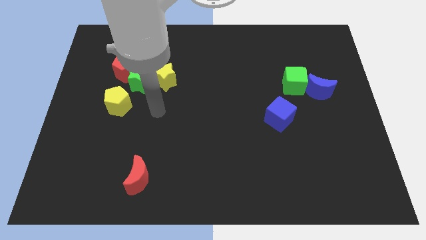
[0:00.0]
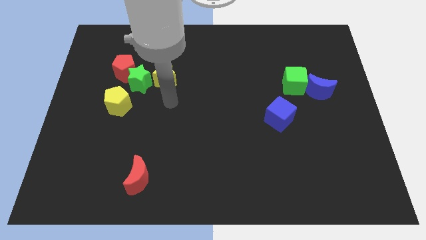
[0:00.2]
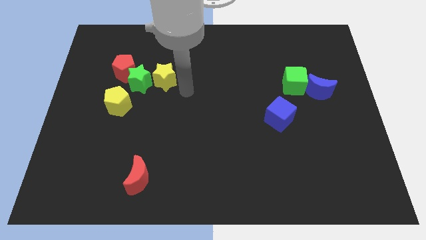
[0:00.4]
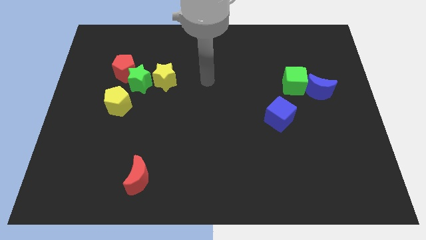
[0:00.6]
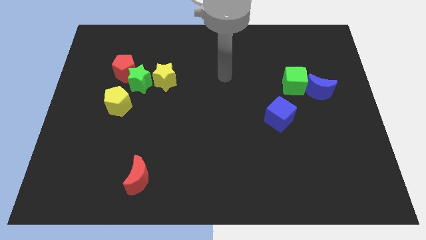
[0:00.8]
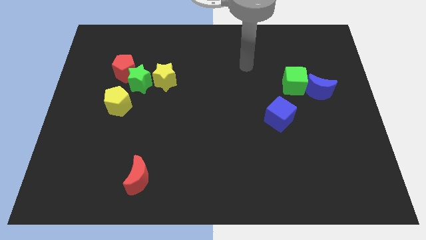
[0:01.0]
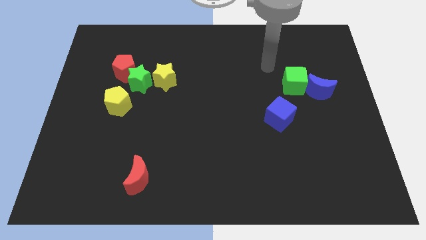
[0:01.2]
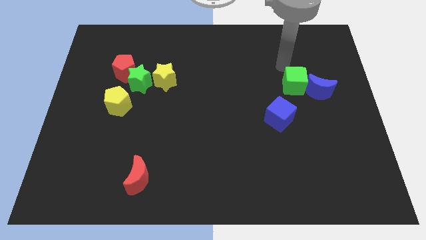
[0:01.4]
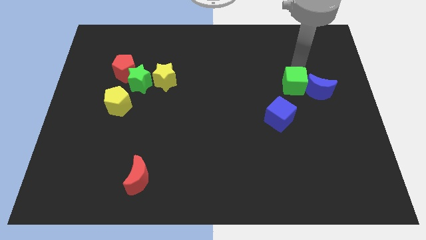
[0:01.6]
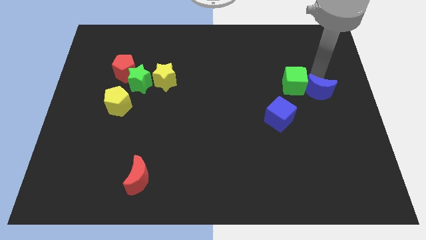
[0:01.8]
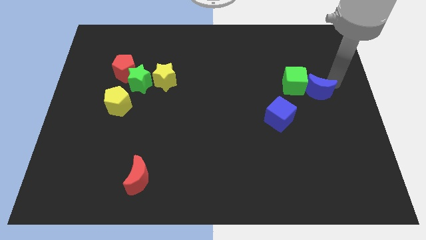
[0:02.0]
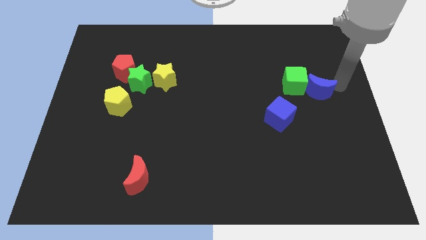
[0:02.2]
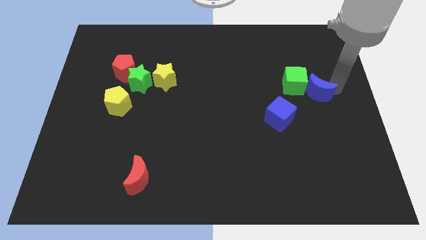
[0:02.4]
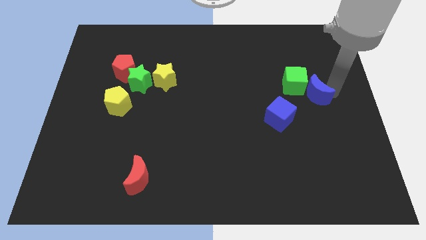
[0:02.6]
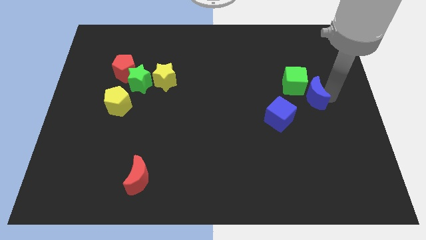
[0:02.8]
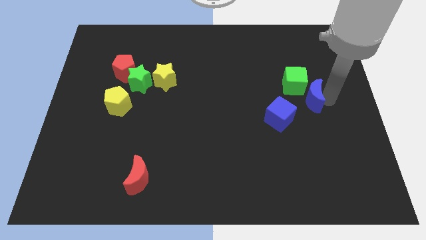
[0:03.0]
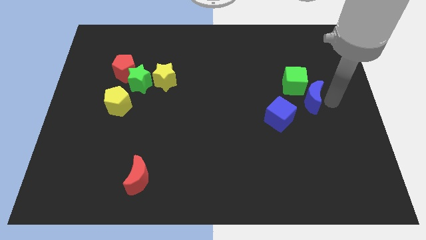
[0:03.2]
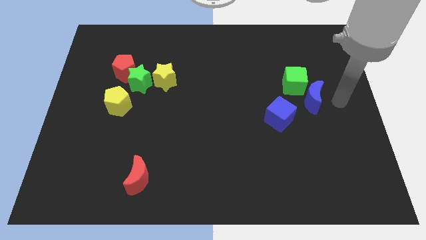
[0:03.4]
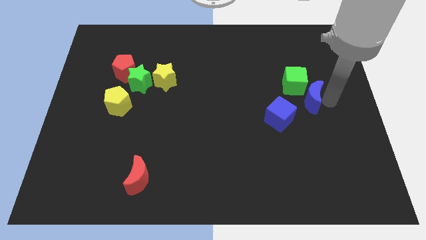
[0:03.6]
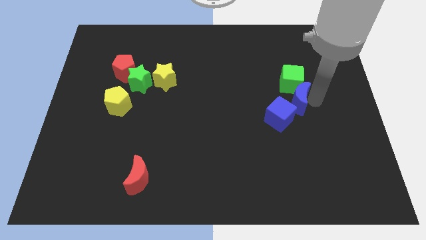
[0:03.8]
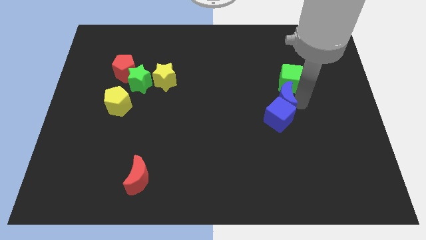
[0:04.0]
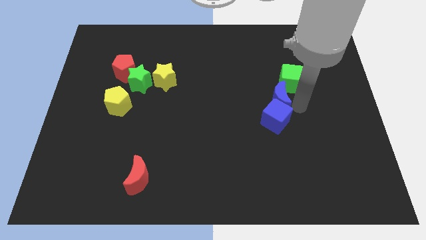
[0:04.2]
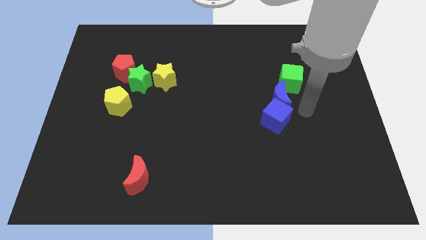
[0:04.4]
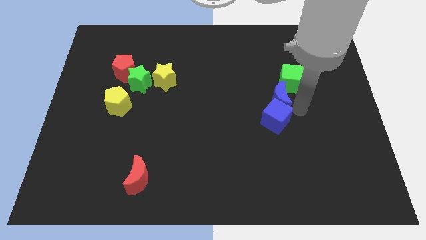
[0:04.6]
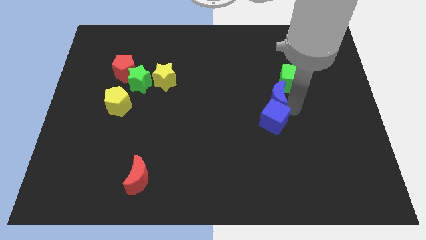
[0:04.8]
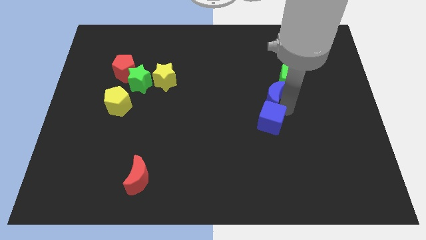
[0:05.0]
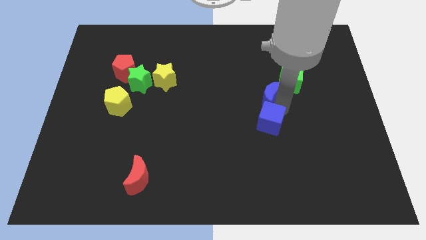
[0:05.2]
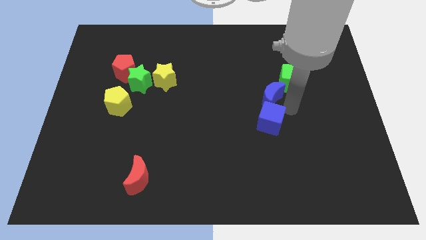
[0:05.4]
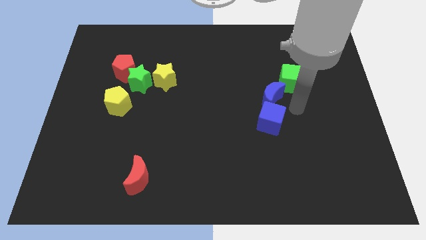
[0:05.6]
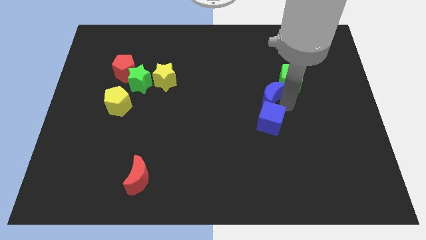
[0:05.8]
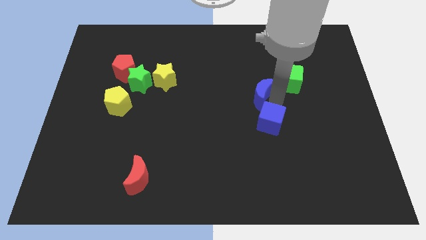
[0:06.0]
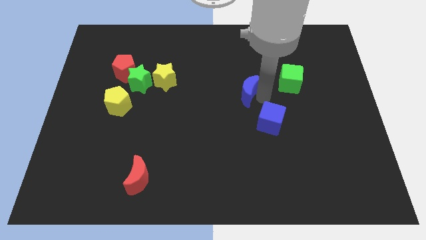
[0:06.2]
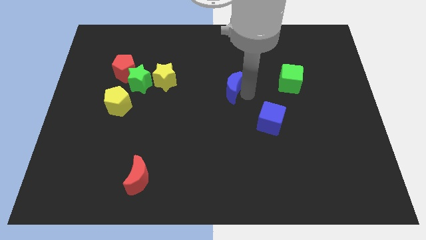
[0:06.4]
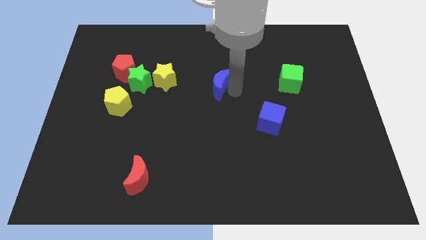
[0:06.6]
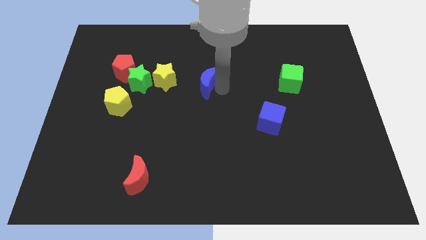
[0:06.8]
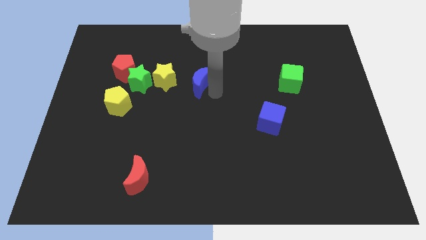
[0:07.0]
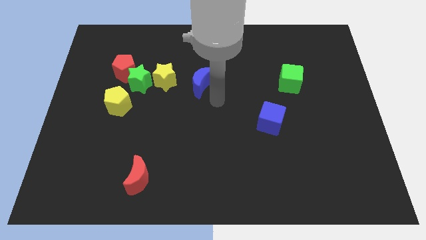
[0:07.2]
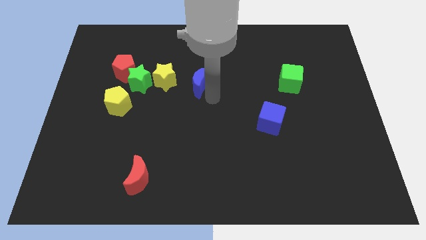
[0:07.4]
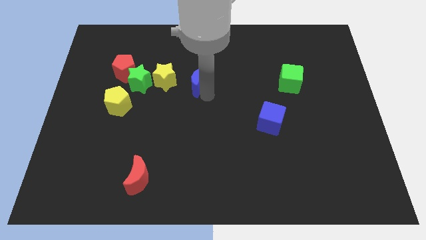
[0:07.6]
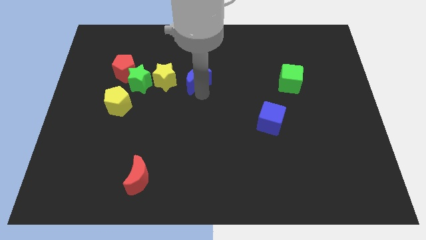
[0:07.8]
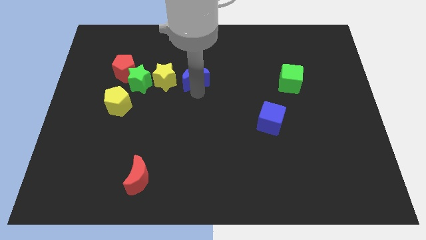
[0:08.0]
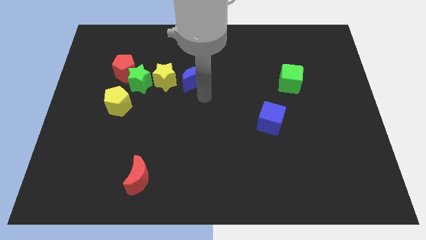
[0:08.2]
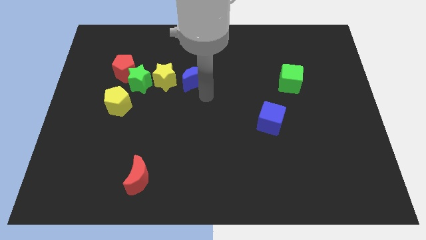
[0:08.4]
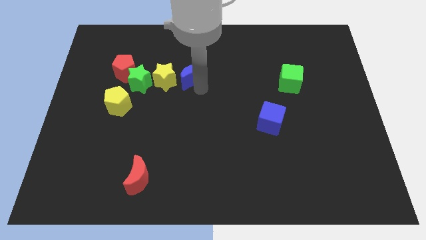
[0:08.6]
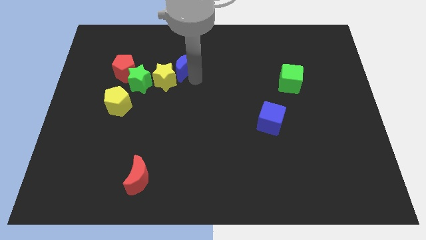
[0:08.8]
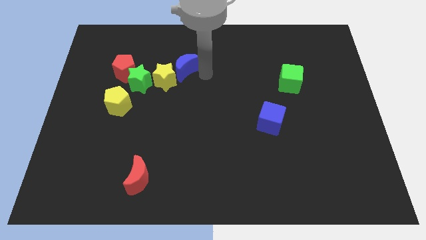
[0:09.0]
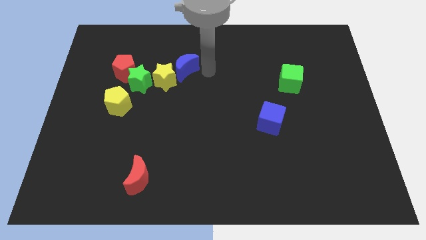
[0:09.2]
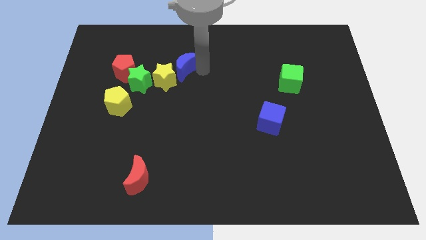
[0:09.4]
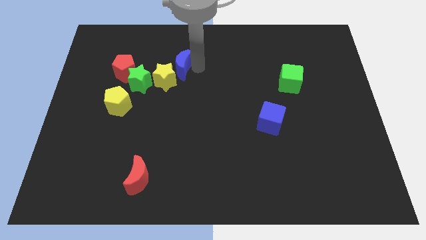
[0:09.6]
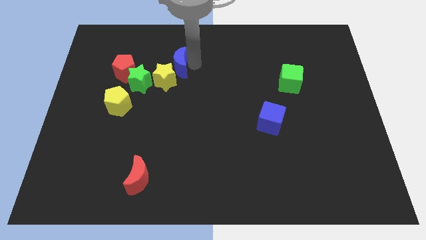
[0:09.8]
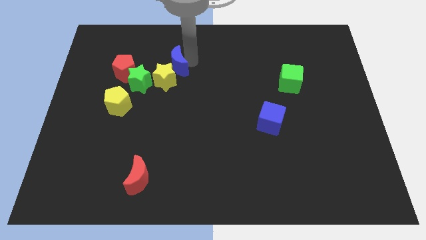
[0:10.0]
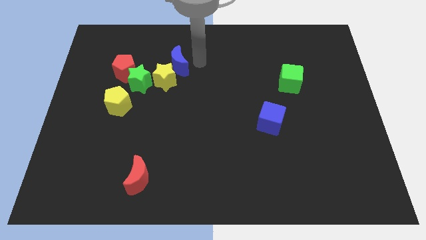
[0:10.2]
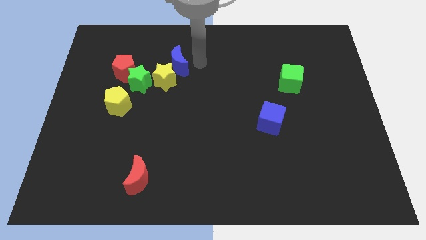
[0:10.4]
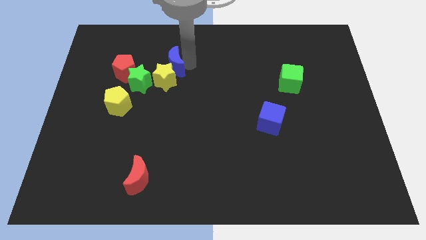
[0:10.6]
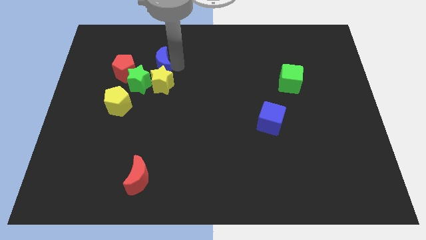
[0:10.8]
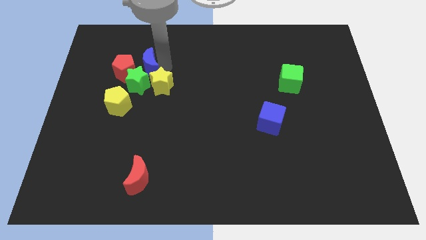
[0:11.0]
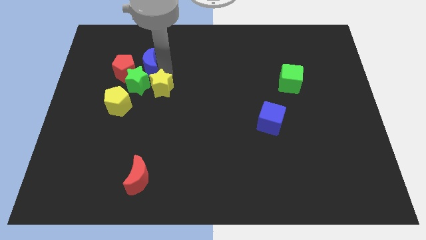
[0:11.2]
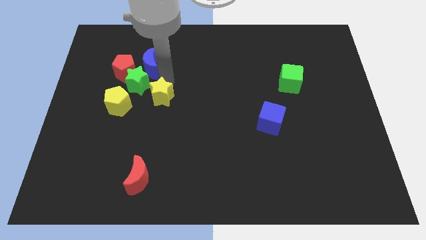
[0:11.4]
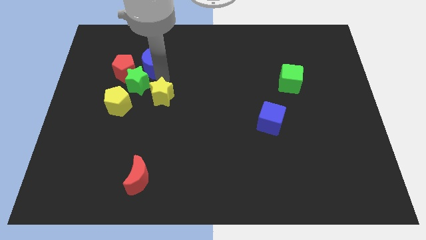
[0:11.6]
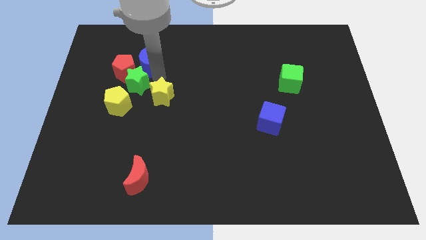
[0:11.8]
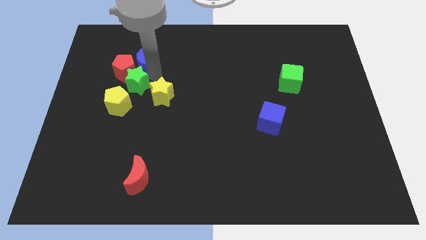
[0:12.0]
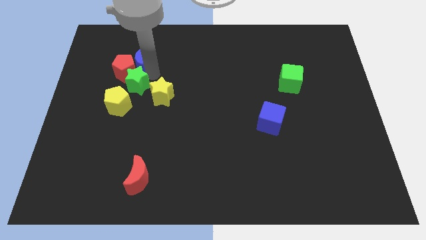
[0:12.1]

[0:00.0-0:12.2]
slide the blue moon diagonally up and to the left of the green star

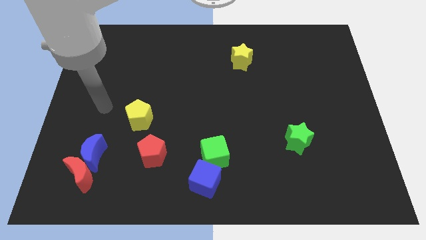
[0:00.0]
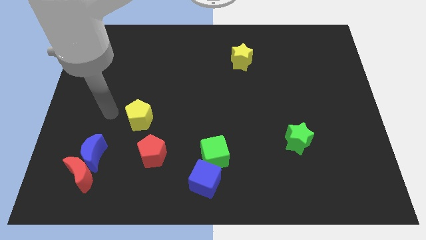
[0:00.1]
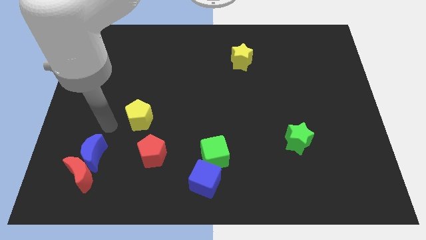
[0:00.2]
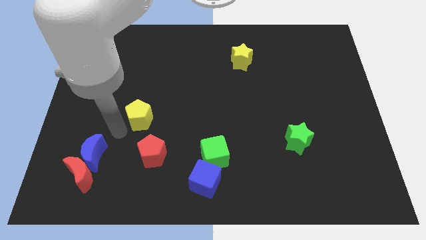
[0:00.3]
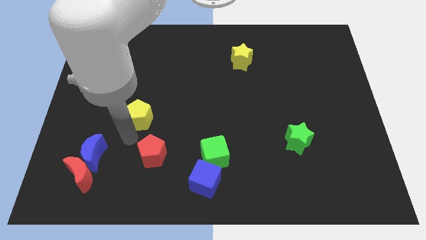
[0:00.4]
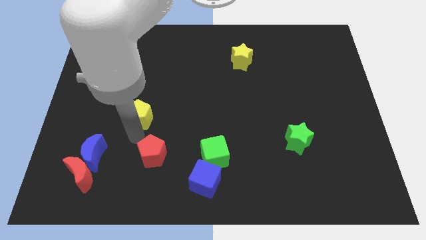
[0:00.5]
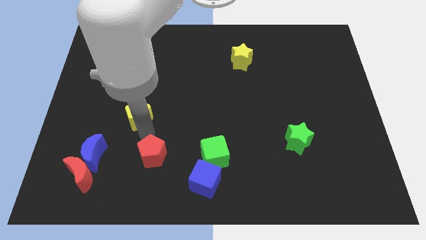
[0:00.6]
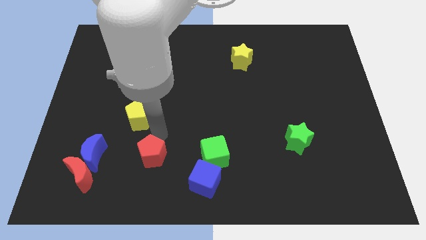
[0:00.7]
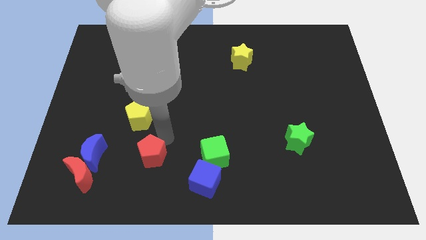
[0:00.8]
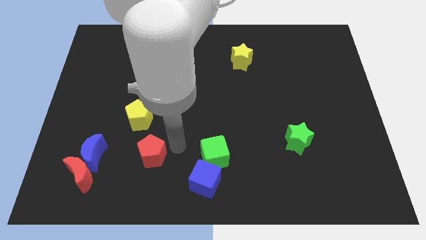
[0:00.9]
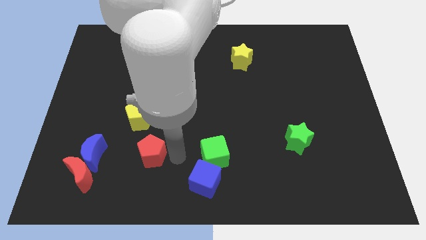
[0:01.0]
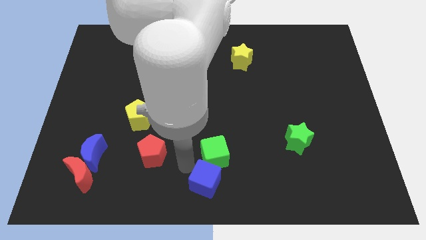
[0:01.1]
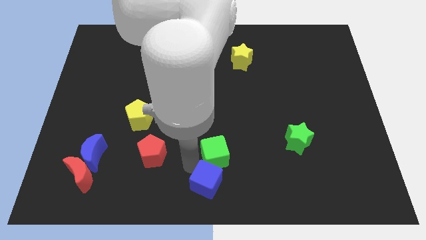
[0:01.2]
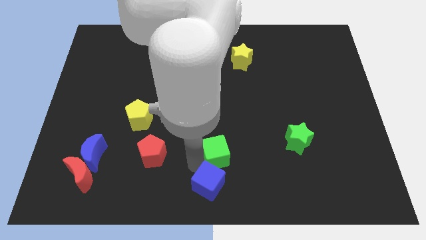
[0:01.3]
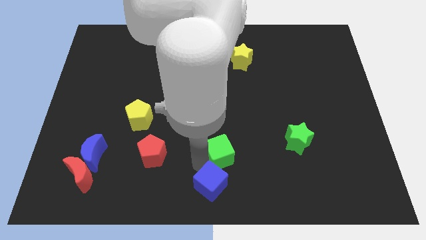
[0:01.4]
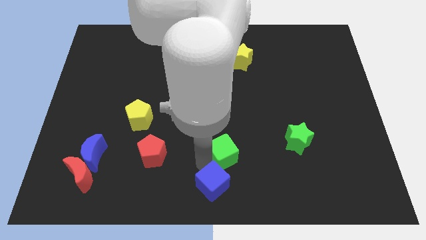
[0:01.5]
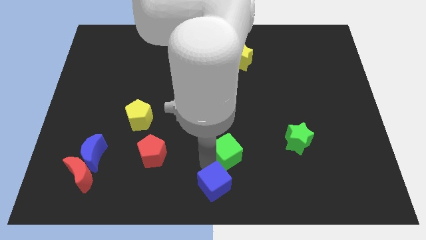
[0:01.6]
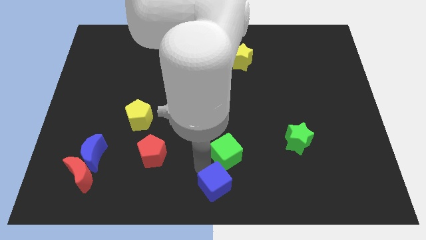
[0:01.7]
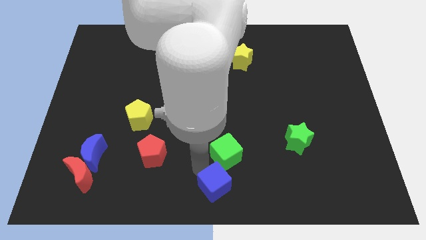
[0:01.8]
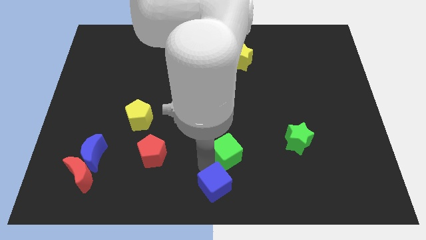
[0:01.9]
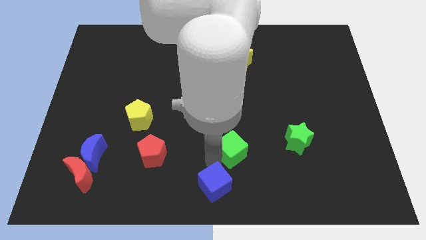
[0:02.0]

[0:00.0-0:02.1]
put the green cube just left of the green star
